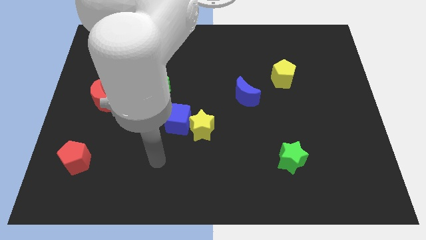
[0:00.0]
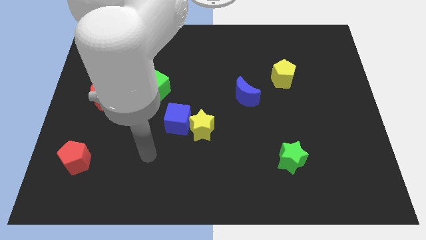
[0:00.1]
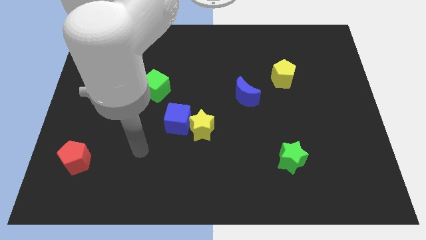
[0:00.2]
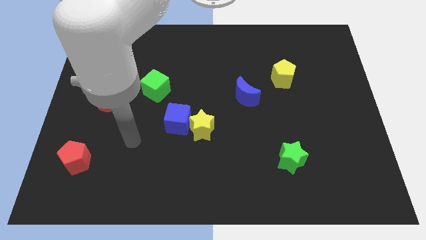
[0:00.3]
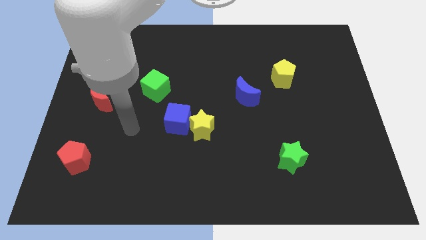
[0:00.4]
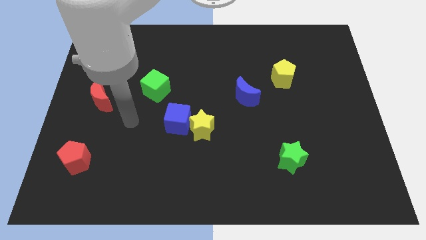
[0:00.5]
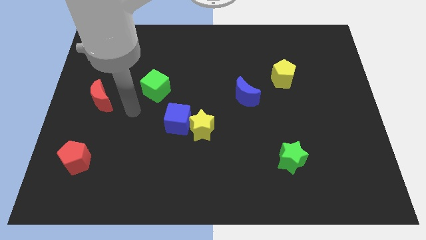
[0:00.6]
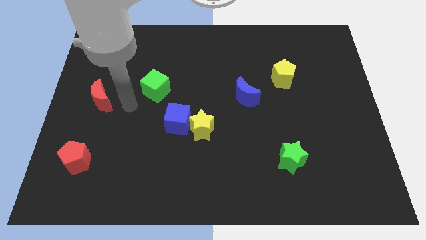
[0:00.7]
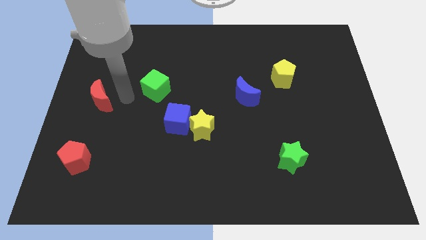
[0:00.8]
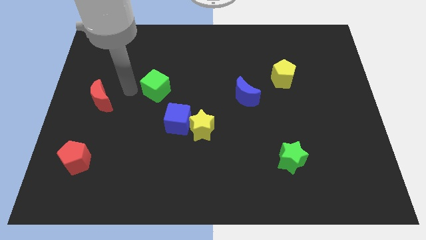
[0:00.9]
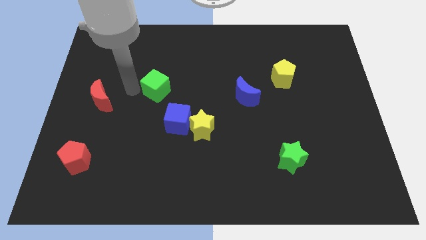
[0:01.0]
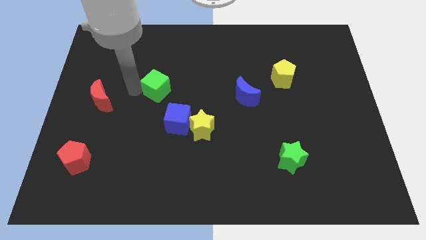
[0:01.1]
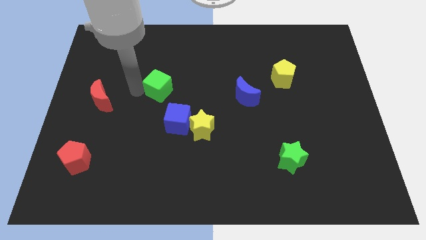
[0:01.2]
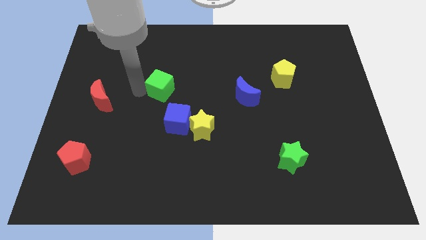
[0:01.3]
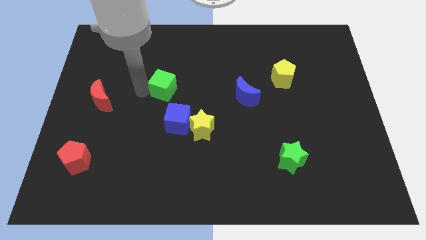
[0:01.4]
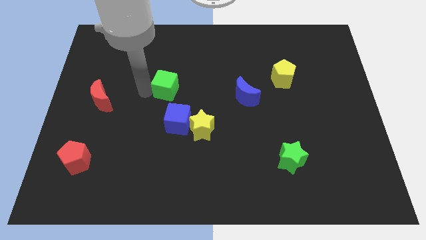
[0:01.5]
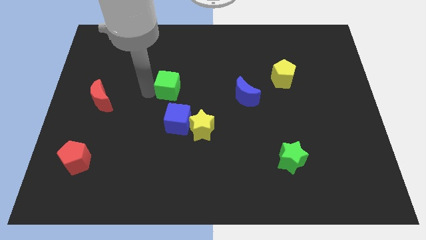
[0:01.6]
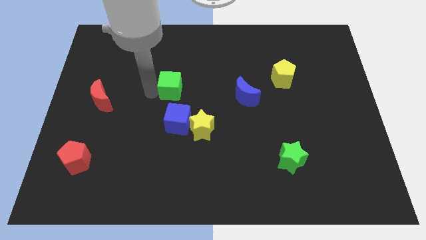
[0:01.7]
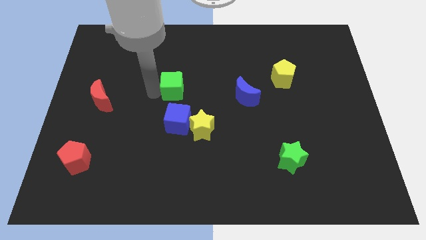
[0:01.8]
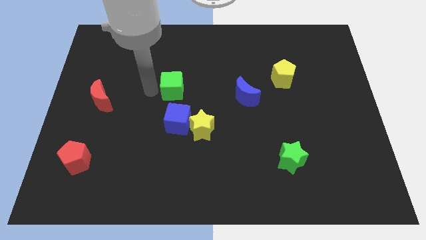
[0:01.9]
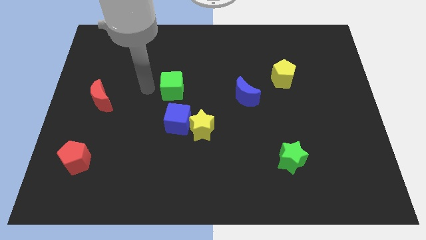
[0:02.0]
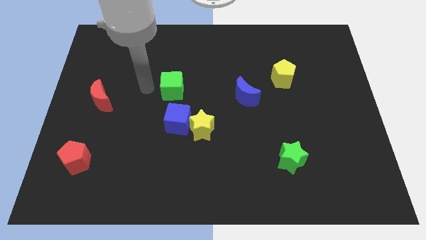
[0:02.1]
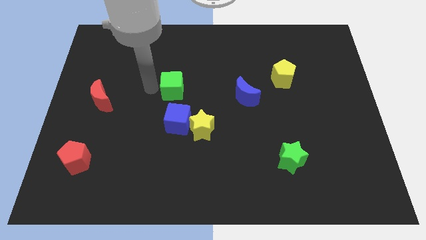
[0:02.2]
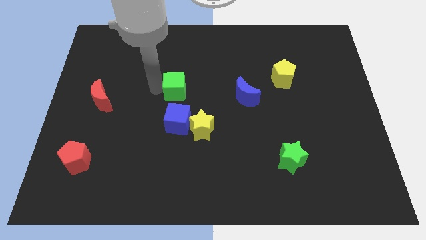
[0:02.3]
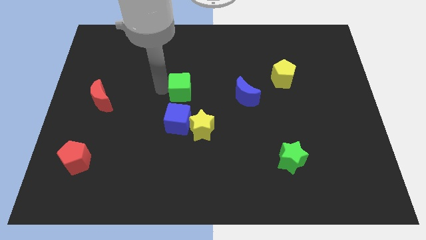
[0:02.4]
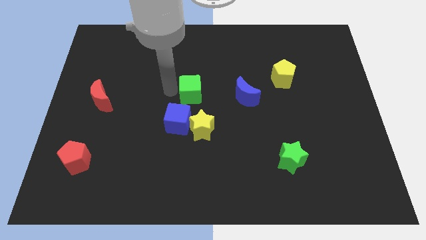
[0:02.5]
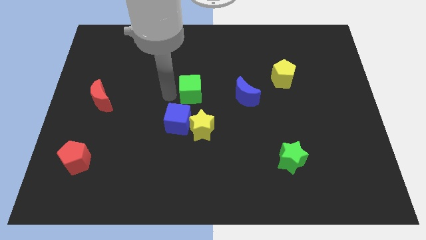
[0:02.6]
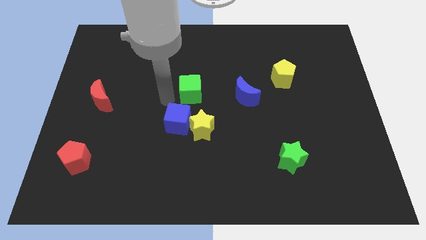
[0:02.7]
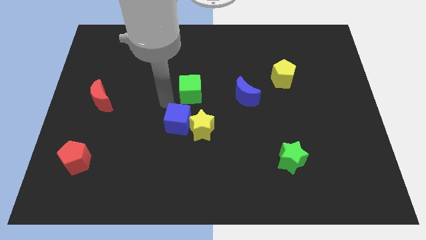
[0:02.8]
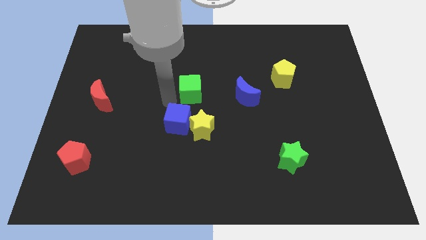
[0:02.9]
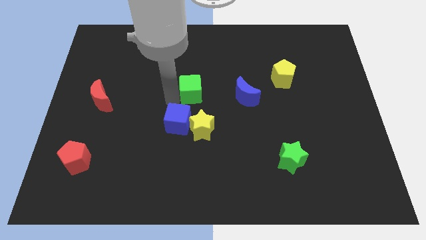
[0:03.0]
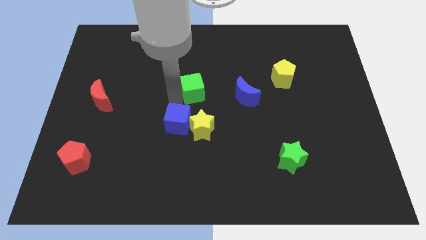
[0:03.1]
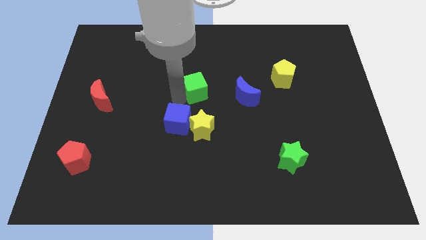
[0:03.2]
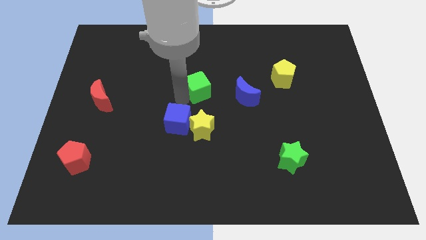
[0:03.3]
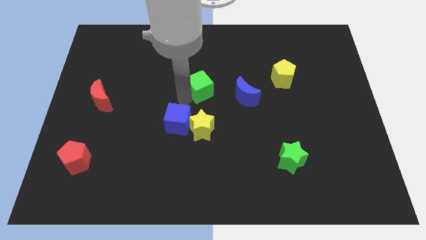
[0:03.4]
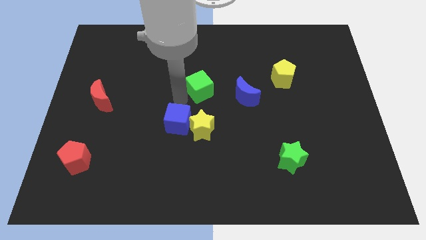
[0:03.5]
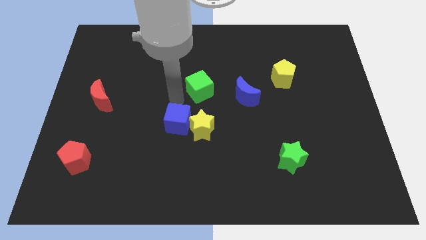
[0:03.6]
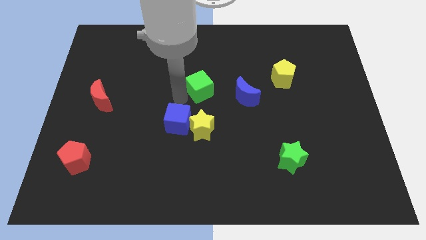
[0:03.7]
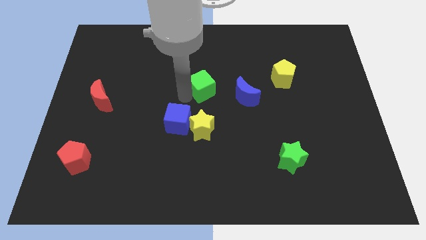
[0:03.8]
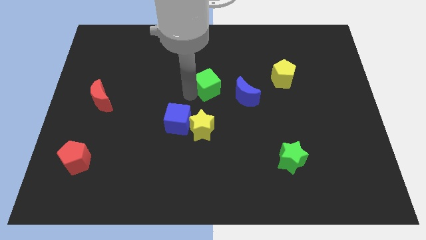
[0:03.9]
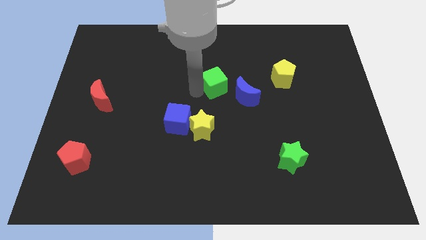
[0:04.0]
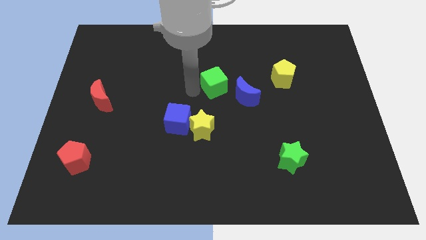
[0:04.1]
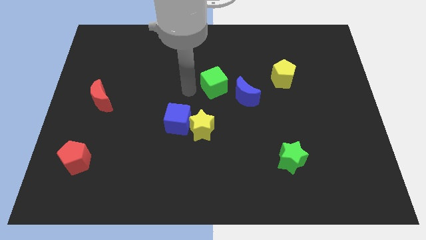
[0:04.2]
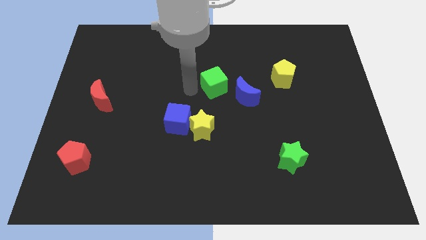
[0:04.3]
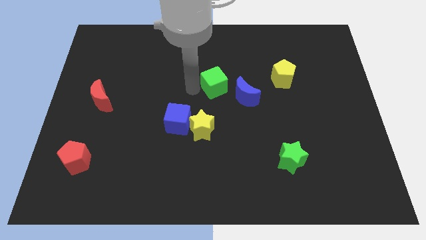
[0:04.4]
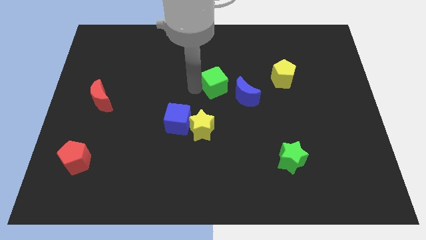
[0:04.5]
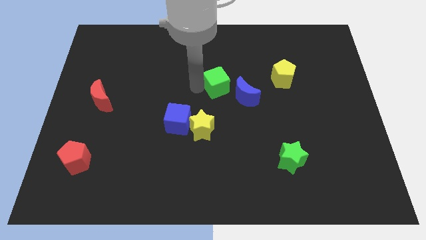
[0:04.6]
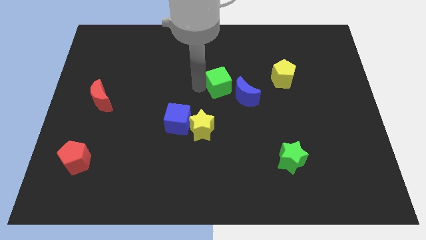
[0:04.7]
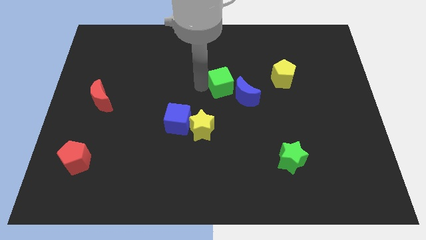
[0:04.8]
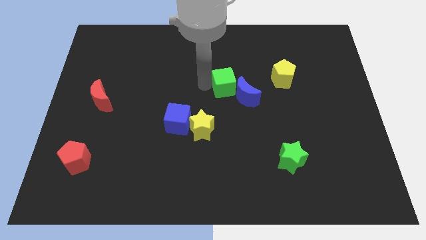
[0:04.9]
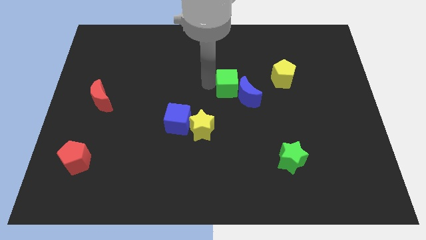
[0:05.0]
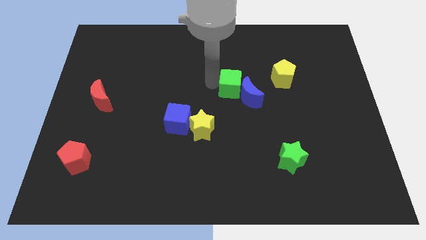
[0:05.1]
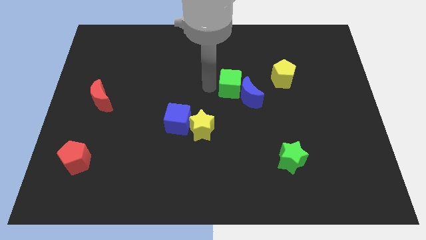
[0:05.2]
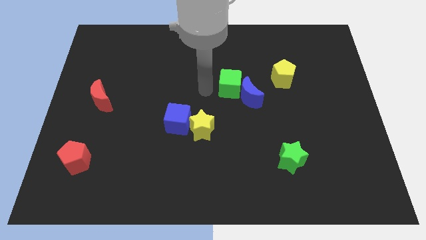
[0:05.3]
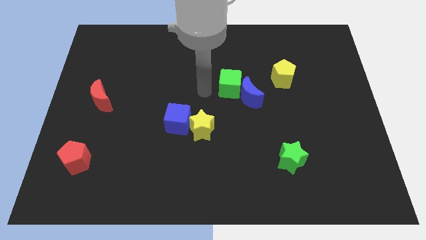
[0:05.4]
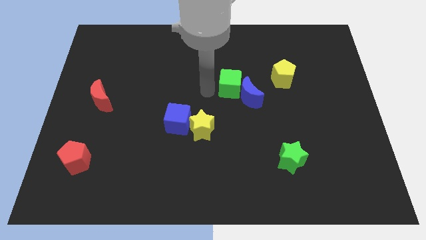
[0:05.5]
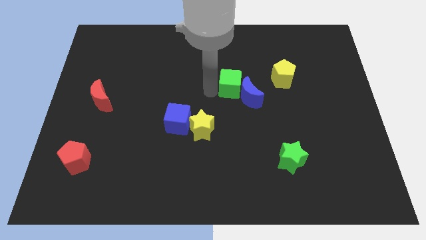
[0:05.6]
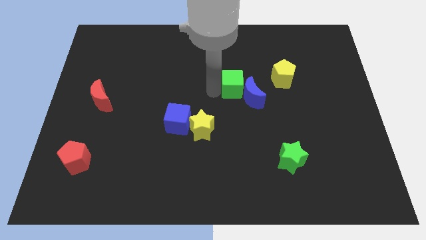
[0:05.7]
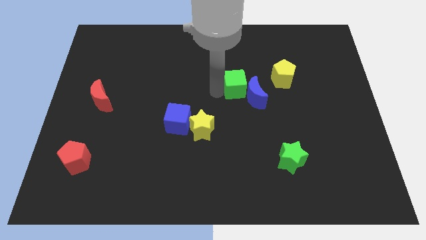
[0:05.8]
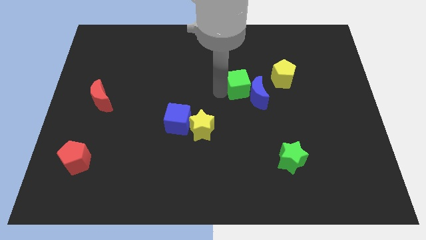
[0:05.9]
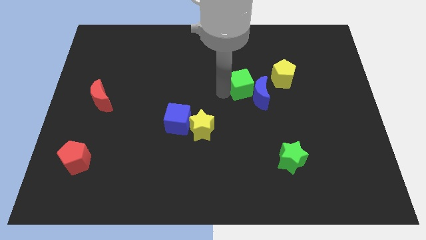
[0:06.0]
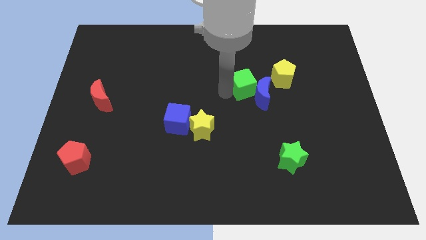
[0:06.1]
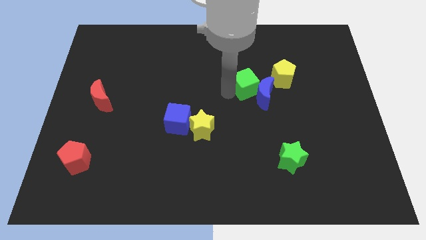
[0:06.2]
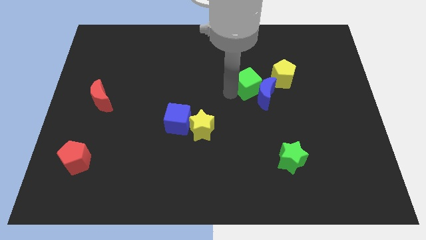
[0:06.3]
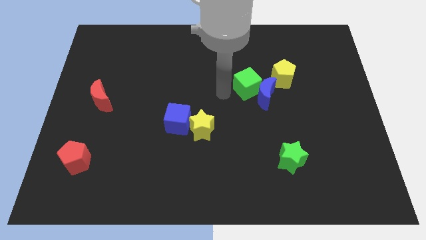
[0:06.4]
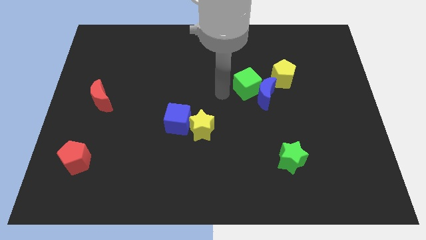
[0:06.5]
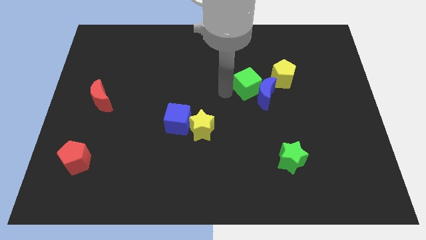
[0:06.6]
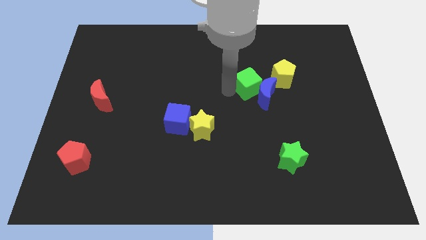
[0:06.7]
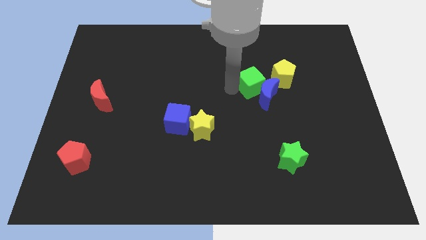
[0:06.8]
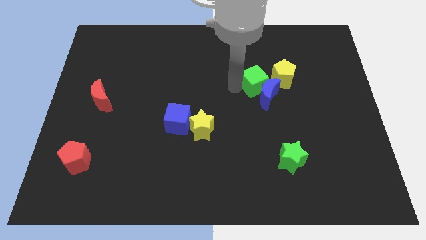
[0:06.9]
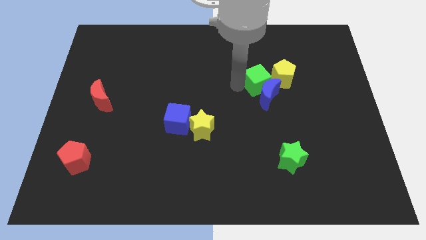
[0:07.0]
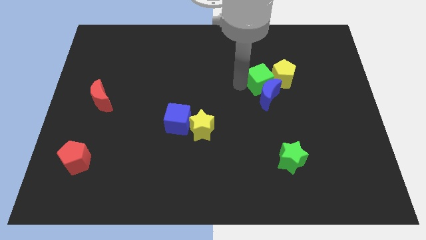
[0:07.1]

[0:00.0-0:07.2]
push the green cube close to the yellow pentagon

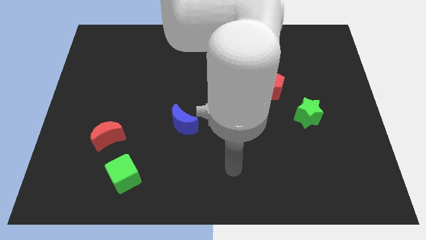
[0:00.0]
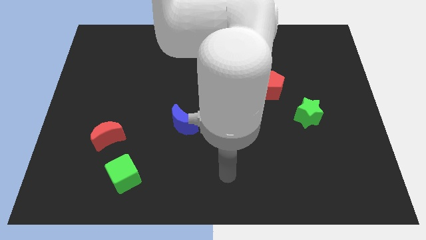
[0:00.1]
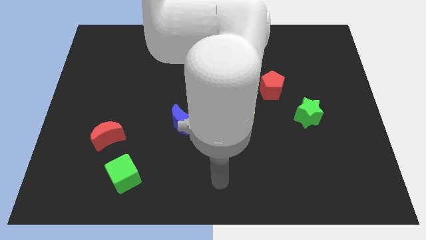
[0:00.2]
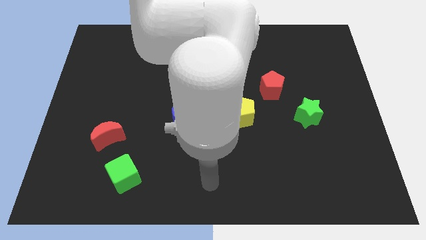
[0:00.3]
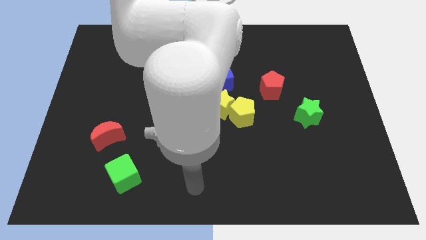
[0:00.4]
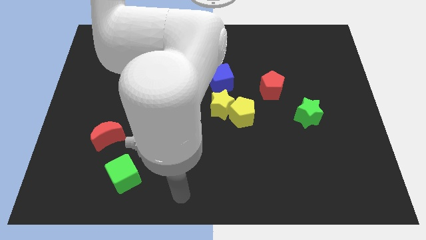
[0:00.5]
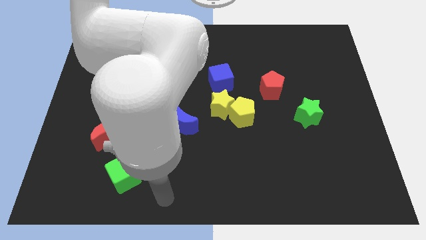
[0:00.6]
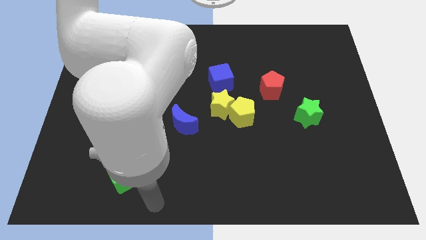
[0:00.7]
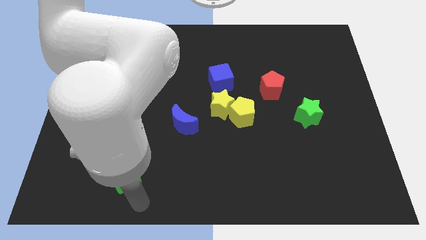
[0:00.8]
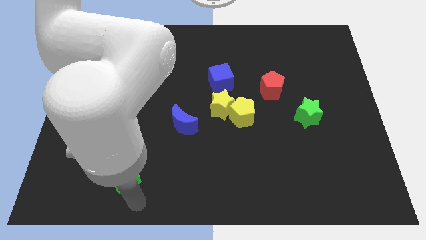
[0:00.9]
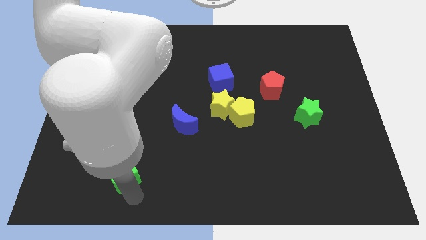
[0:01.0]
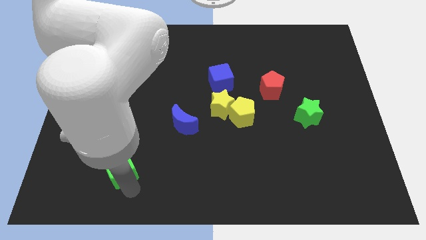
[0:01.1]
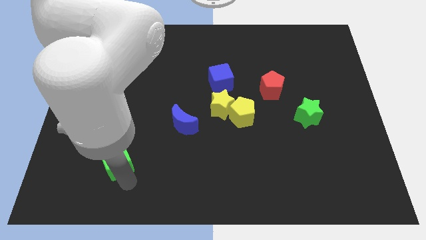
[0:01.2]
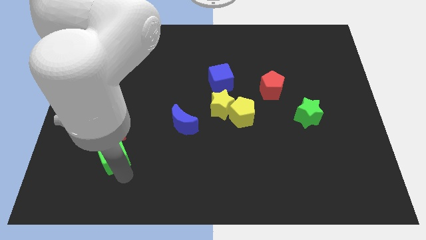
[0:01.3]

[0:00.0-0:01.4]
slide the green cube next to the red moon
